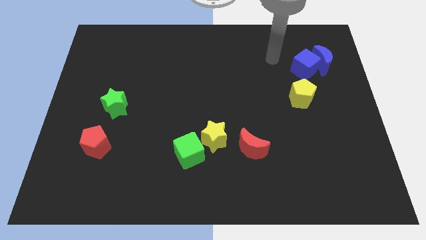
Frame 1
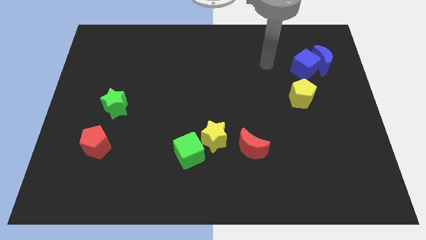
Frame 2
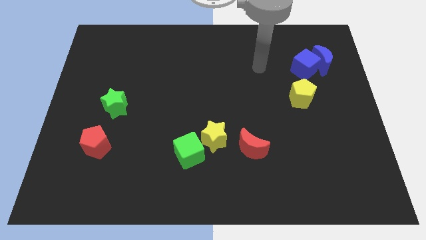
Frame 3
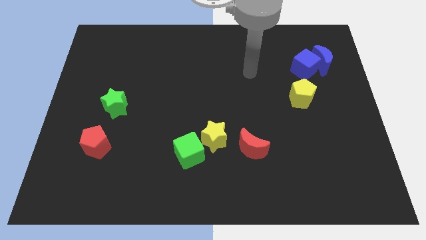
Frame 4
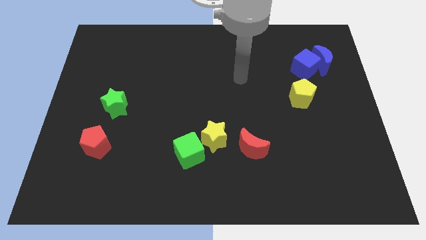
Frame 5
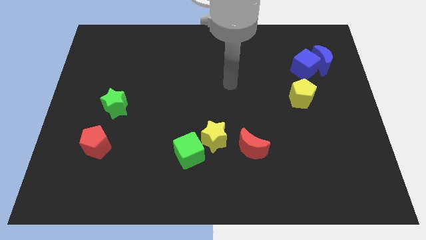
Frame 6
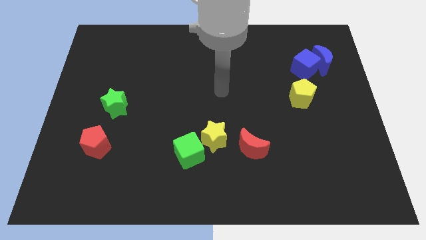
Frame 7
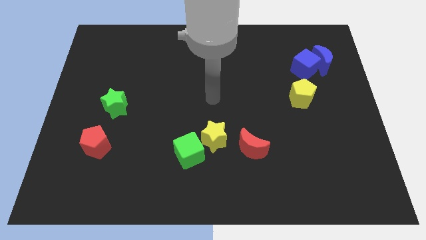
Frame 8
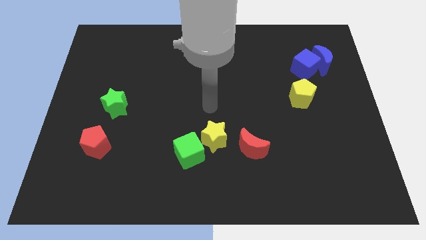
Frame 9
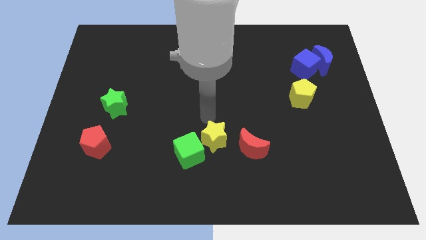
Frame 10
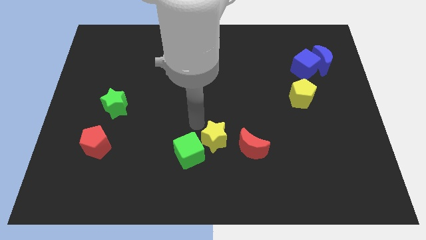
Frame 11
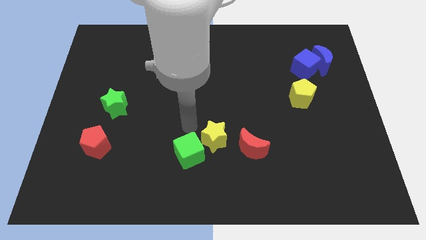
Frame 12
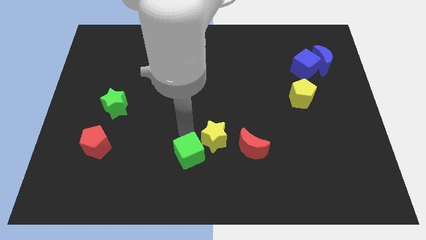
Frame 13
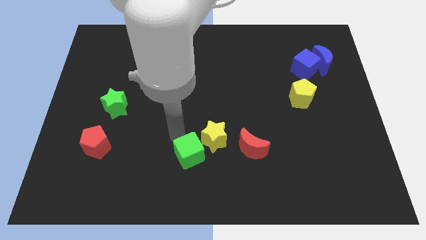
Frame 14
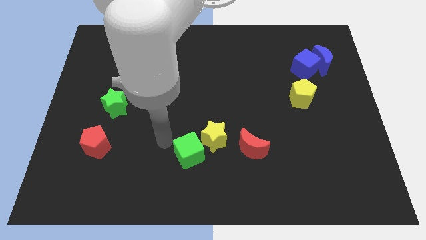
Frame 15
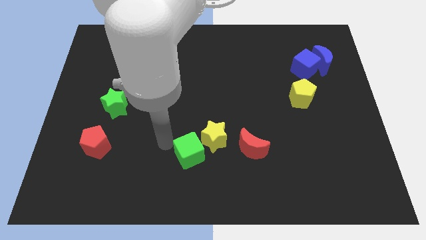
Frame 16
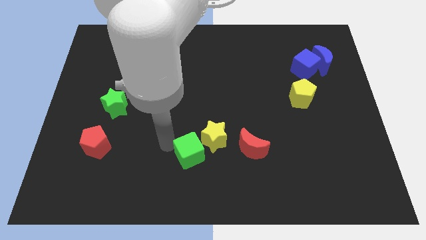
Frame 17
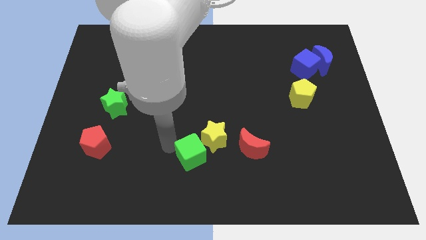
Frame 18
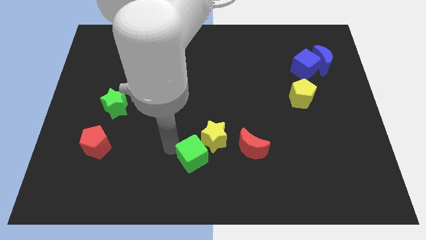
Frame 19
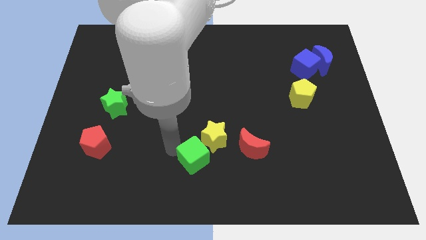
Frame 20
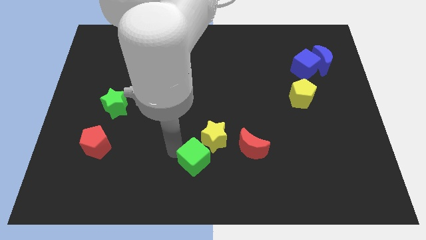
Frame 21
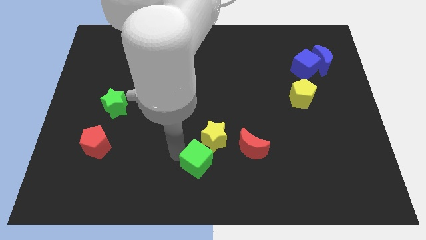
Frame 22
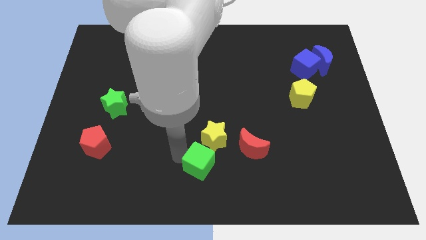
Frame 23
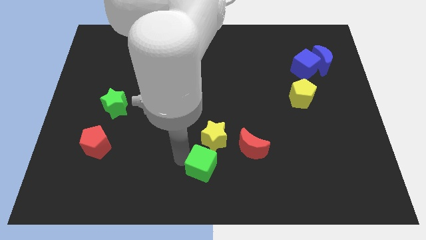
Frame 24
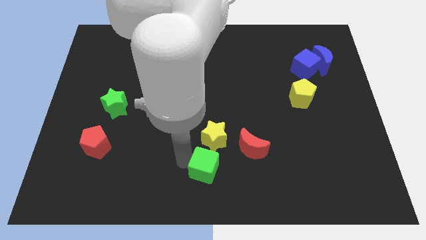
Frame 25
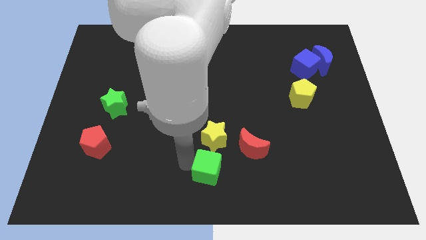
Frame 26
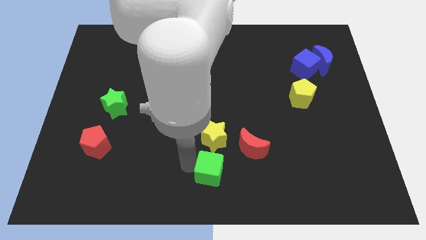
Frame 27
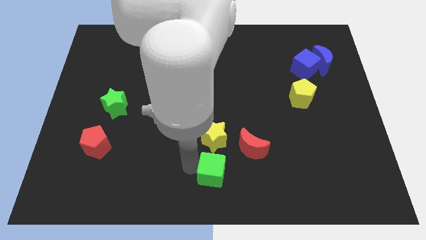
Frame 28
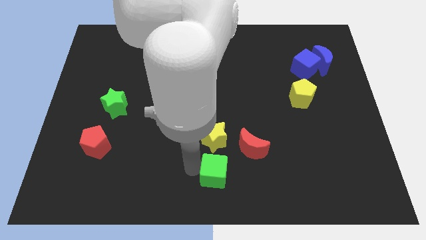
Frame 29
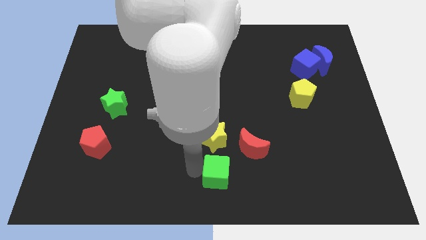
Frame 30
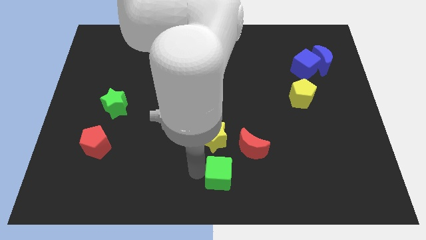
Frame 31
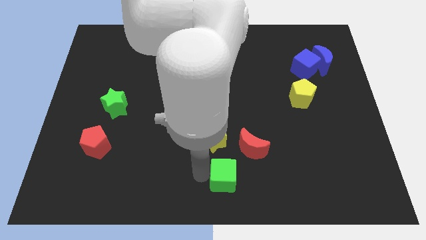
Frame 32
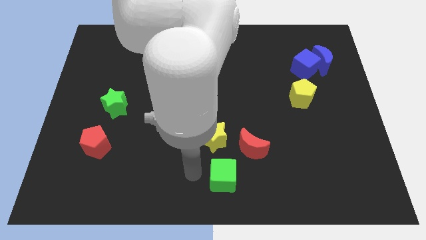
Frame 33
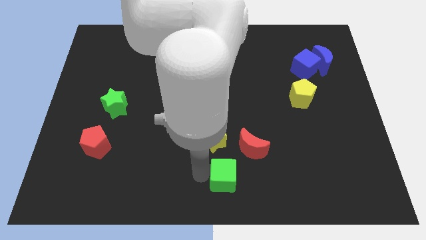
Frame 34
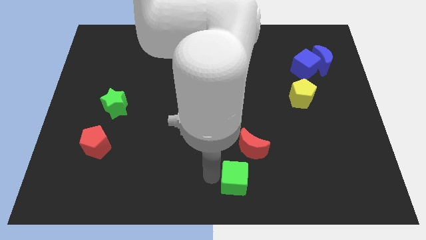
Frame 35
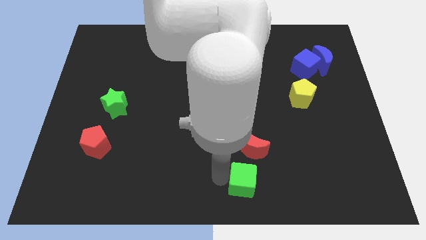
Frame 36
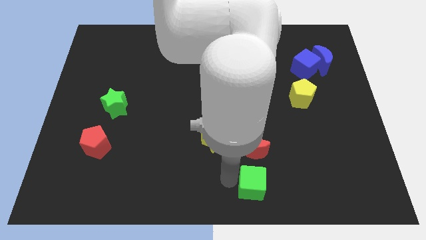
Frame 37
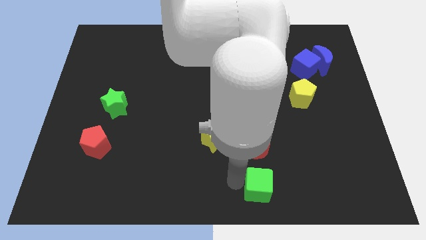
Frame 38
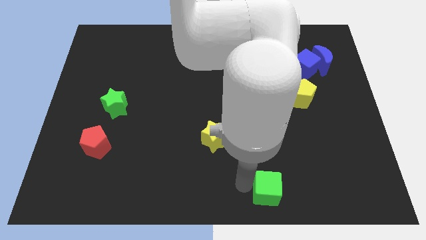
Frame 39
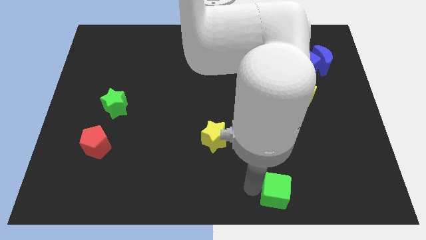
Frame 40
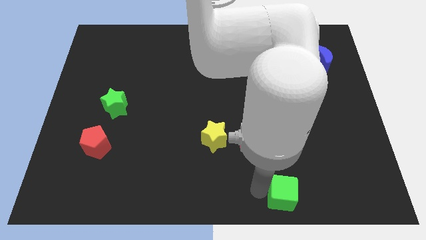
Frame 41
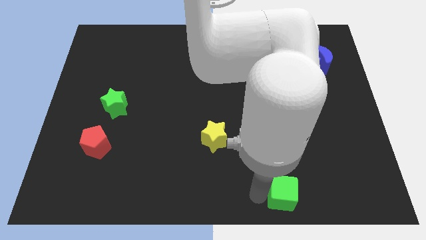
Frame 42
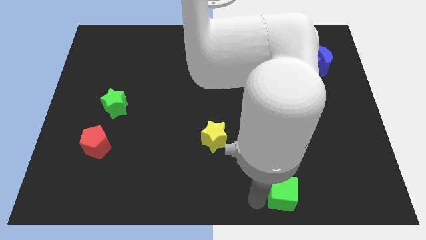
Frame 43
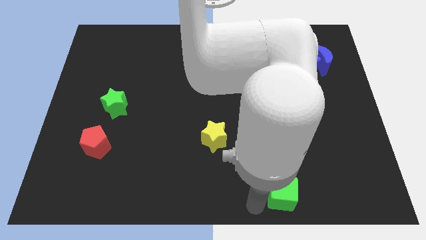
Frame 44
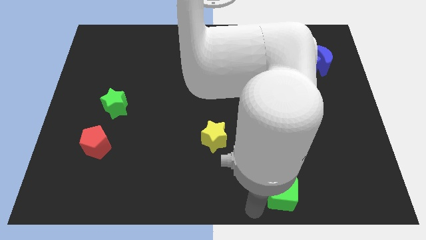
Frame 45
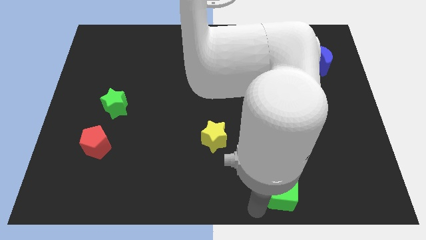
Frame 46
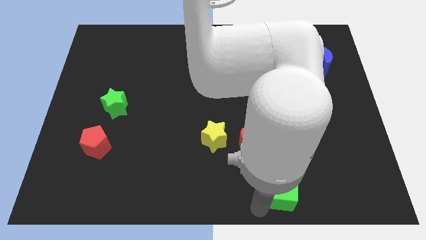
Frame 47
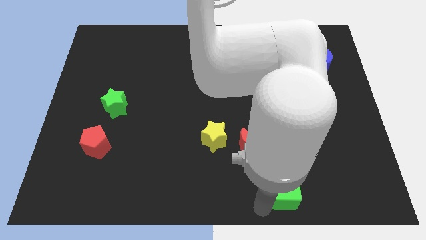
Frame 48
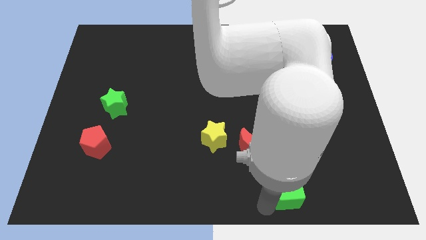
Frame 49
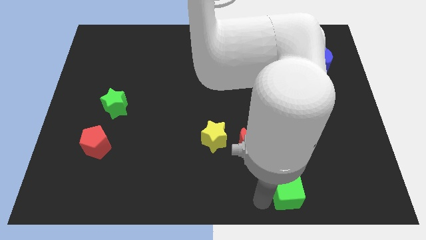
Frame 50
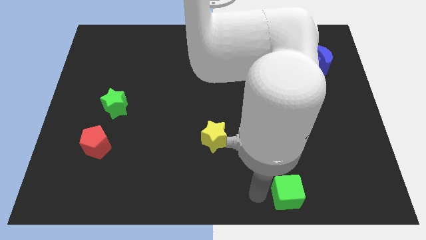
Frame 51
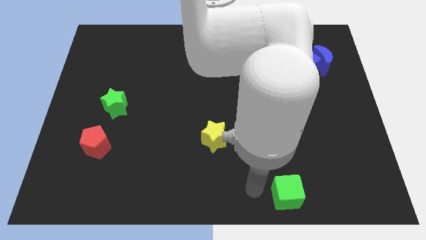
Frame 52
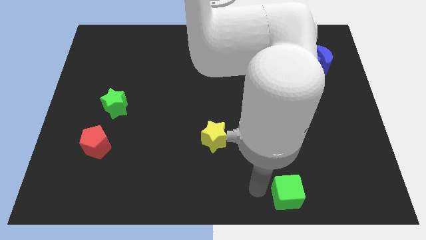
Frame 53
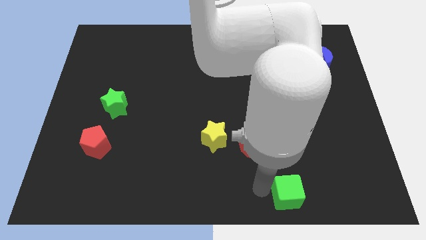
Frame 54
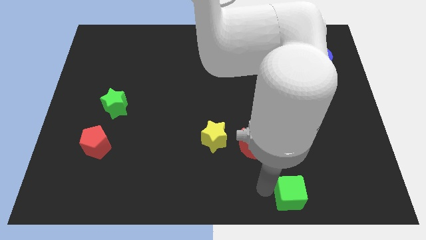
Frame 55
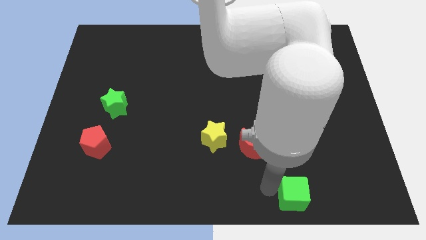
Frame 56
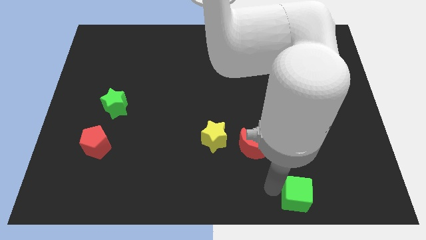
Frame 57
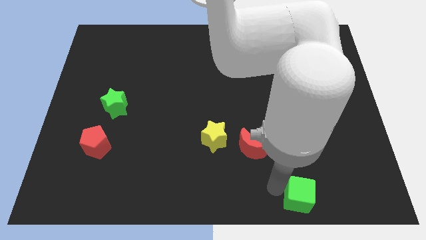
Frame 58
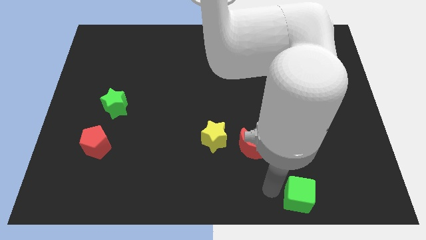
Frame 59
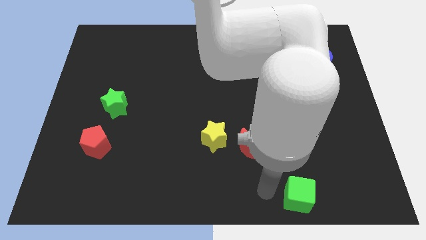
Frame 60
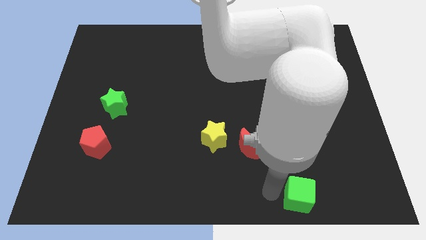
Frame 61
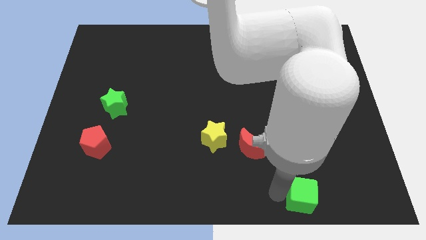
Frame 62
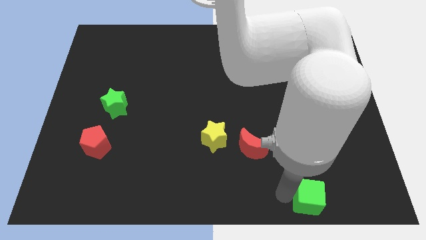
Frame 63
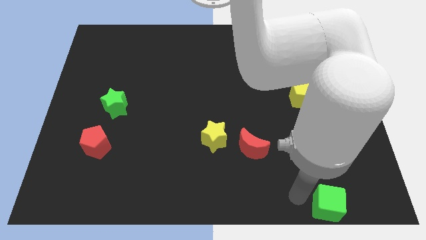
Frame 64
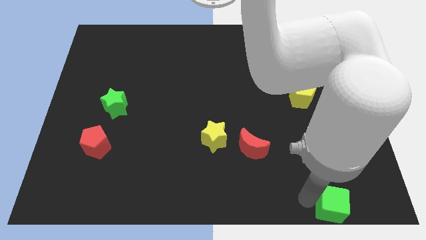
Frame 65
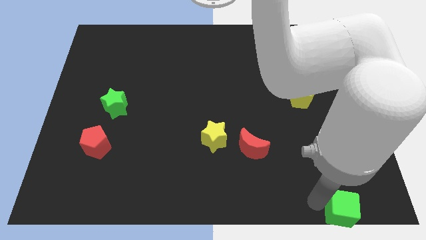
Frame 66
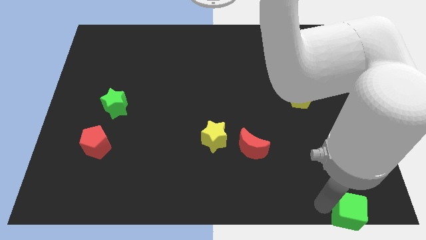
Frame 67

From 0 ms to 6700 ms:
push the green cube to the lower right corner

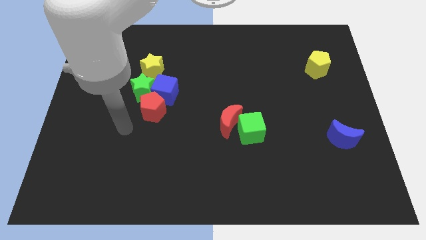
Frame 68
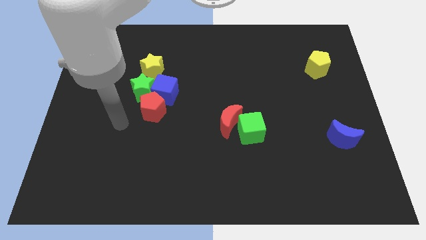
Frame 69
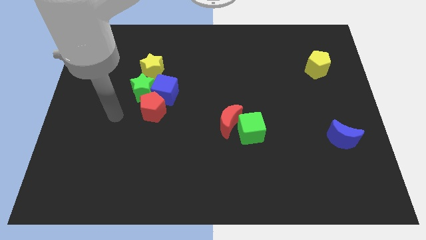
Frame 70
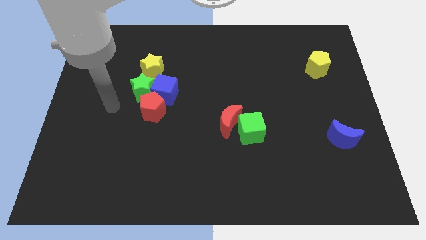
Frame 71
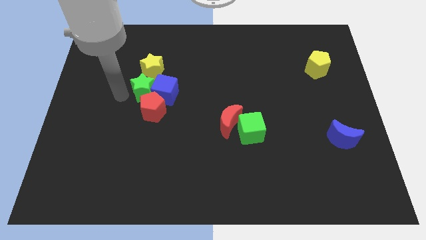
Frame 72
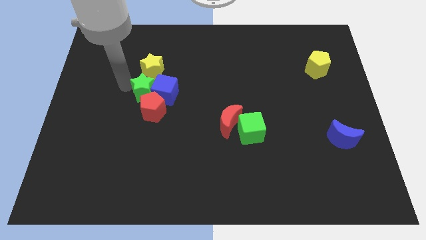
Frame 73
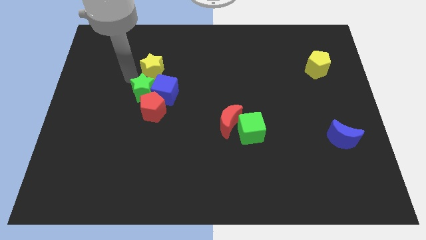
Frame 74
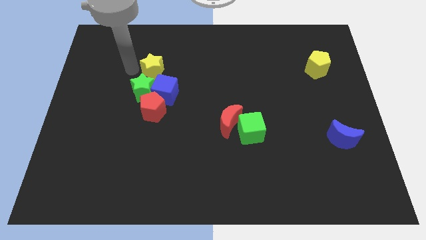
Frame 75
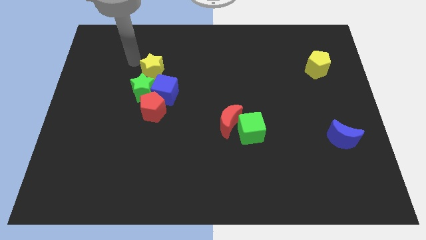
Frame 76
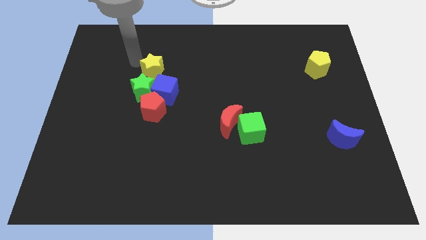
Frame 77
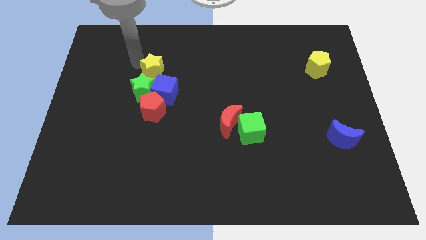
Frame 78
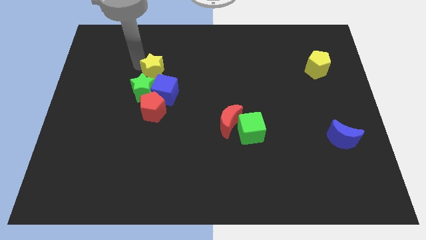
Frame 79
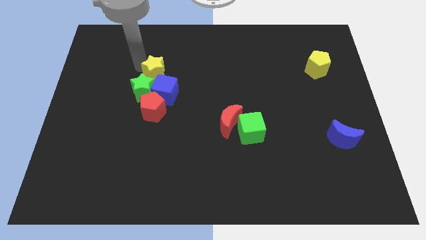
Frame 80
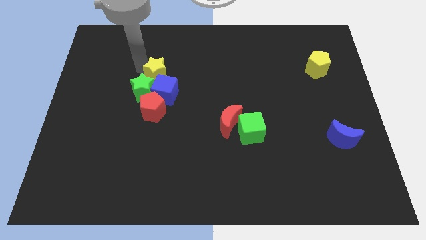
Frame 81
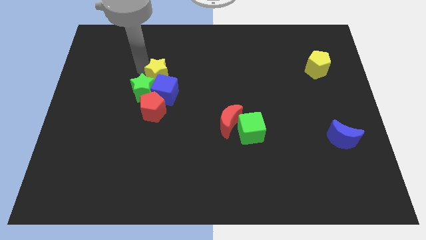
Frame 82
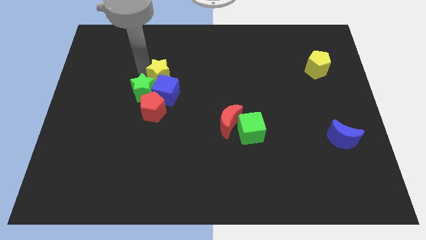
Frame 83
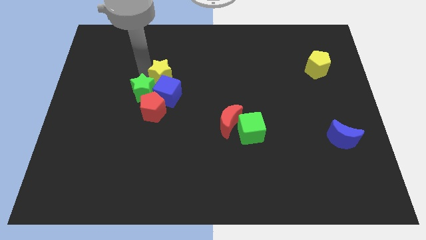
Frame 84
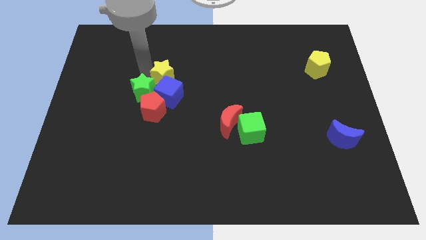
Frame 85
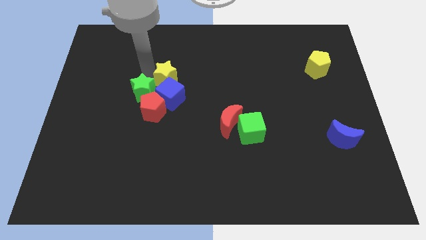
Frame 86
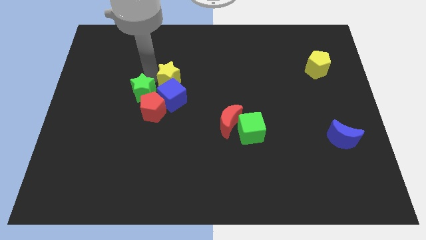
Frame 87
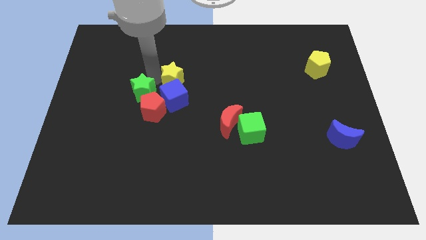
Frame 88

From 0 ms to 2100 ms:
push the yellow star to the center
